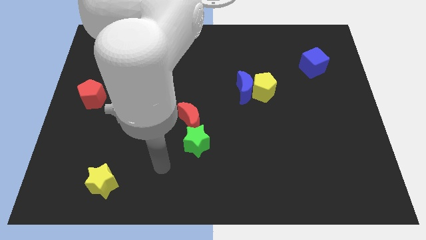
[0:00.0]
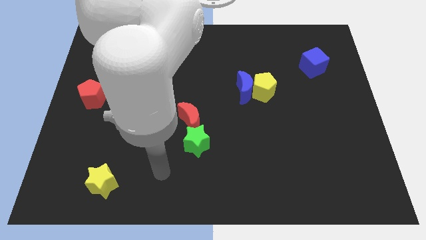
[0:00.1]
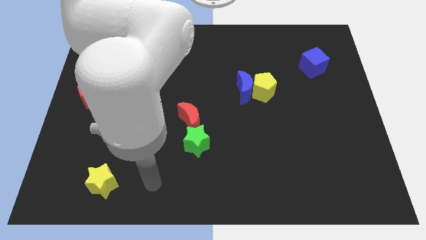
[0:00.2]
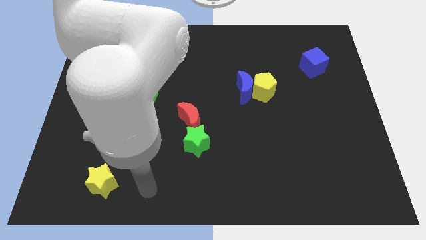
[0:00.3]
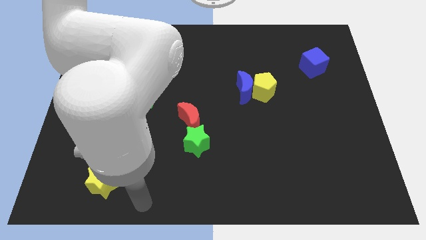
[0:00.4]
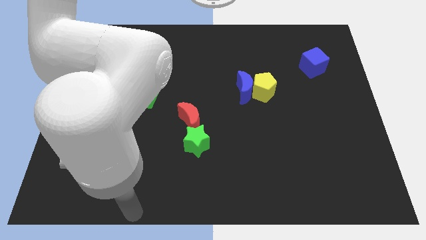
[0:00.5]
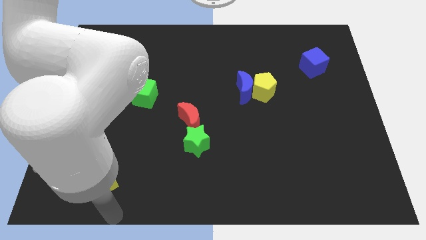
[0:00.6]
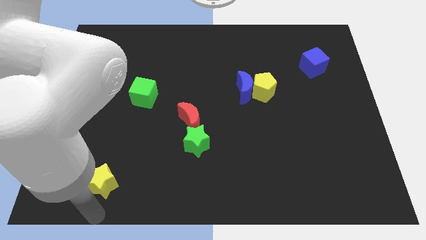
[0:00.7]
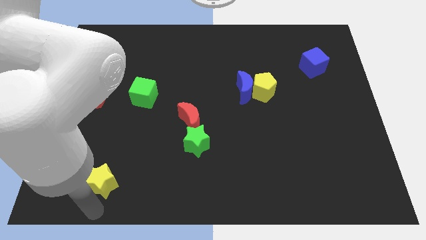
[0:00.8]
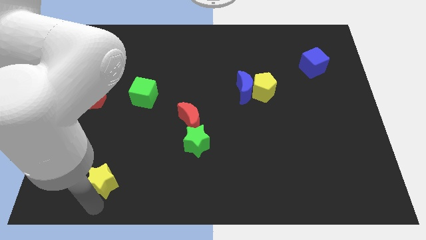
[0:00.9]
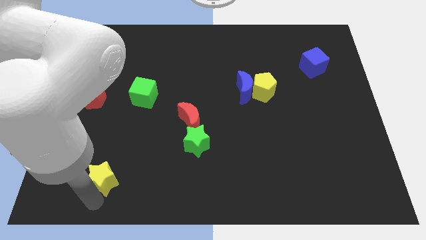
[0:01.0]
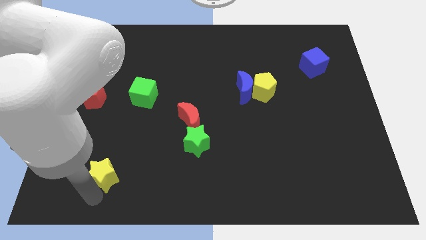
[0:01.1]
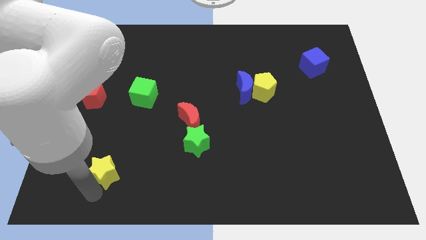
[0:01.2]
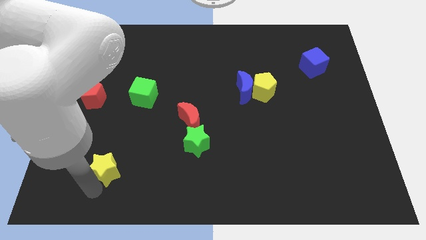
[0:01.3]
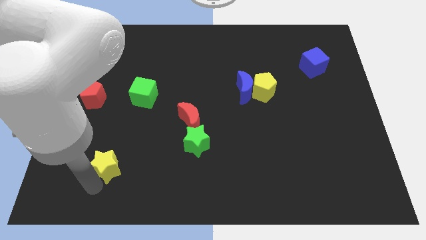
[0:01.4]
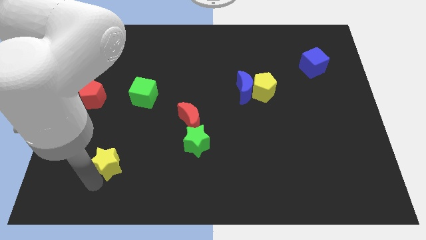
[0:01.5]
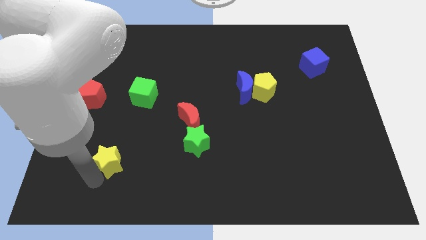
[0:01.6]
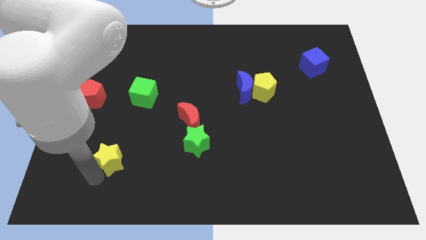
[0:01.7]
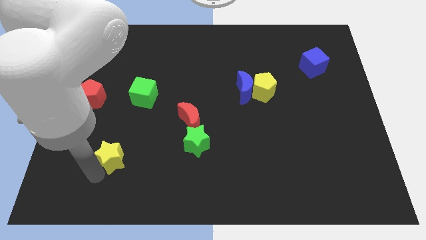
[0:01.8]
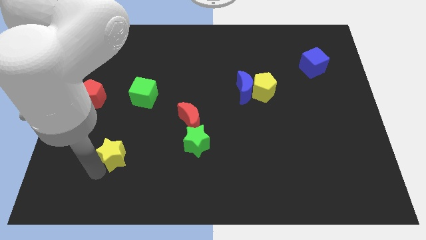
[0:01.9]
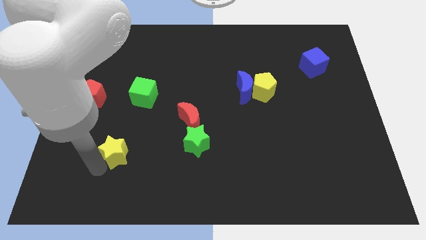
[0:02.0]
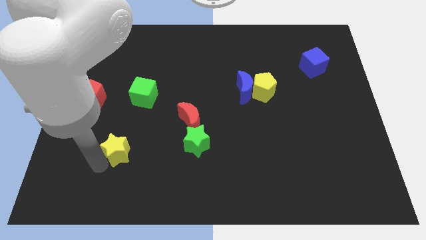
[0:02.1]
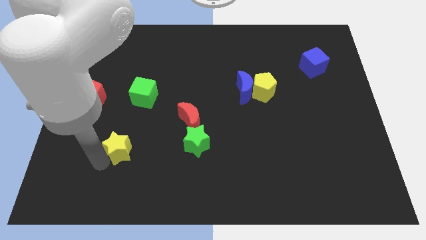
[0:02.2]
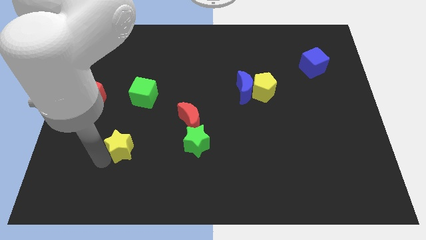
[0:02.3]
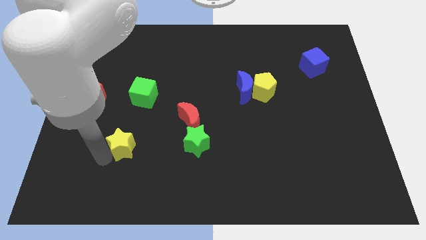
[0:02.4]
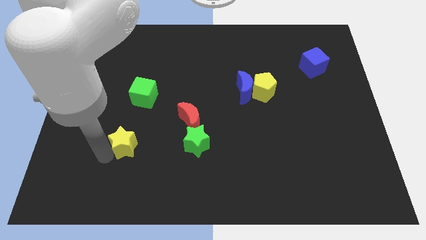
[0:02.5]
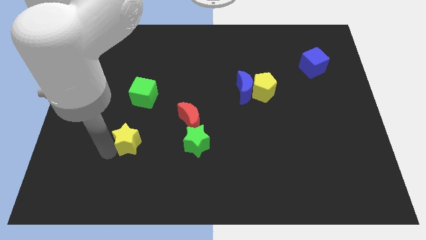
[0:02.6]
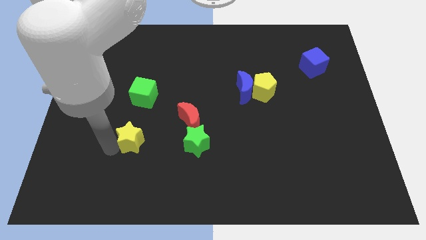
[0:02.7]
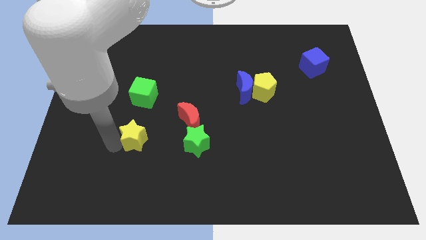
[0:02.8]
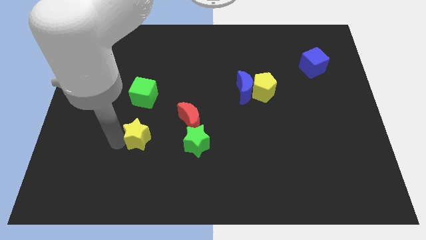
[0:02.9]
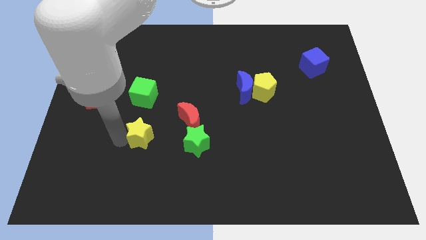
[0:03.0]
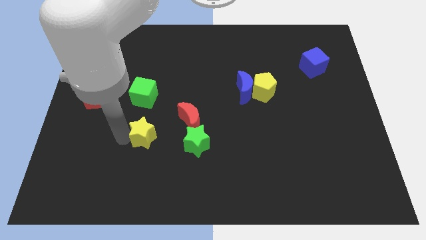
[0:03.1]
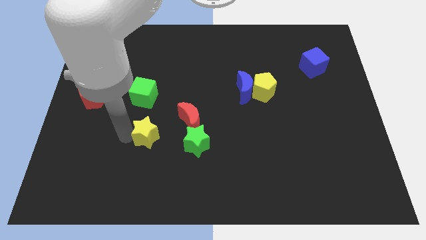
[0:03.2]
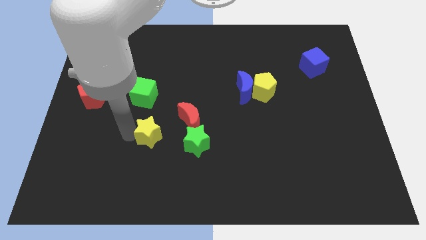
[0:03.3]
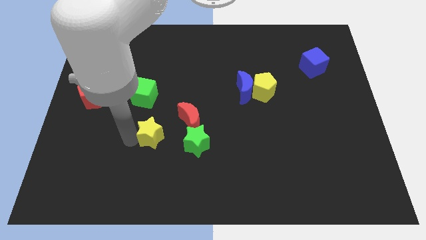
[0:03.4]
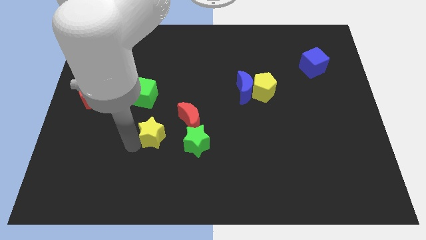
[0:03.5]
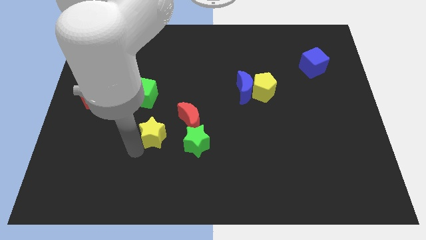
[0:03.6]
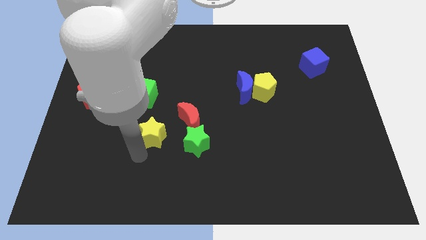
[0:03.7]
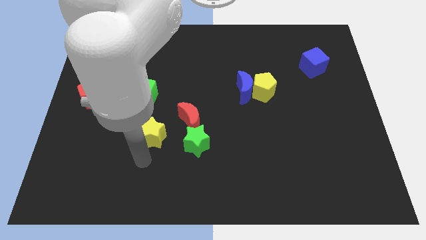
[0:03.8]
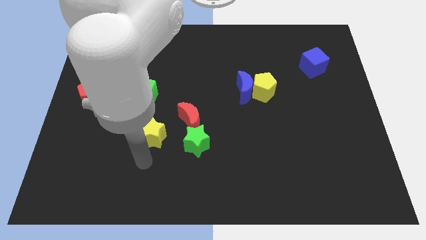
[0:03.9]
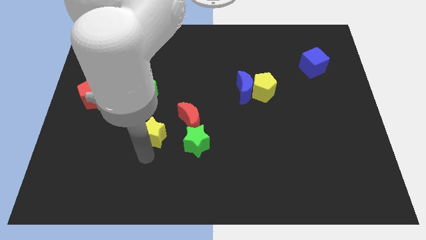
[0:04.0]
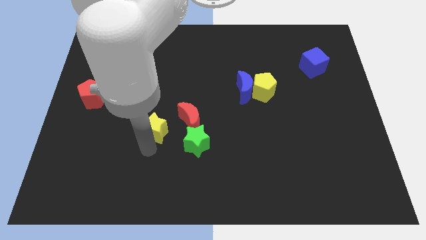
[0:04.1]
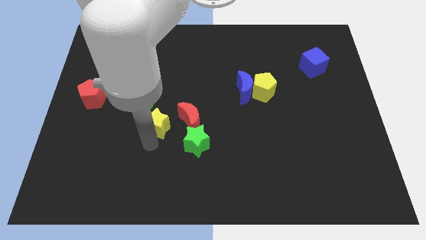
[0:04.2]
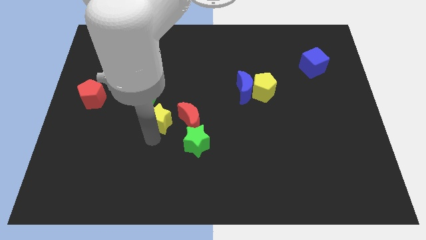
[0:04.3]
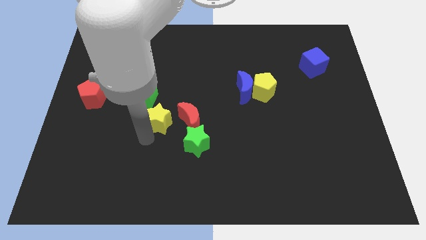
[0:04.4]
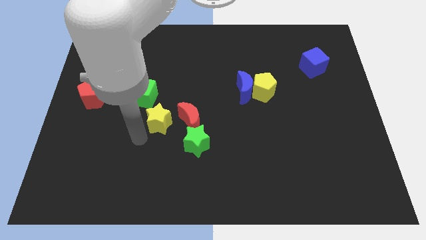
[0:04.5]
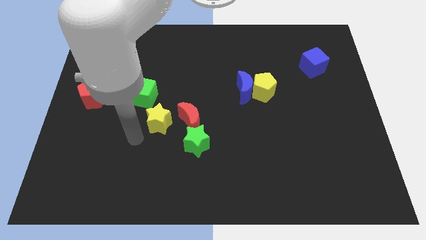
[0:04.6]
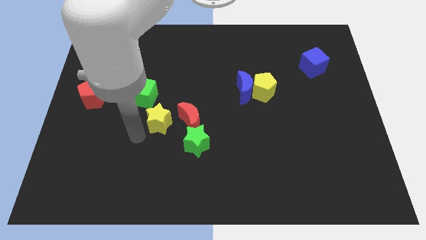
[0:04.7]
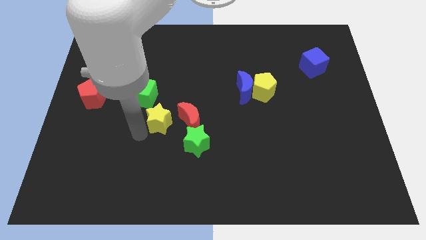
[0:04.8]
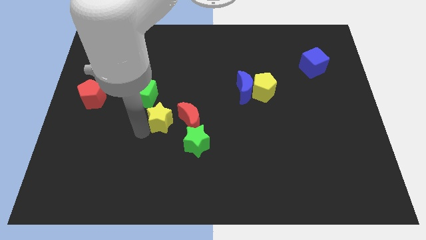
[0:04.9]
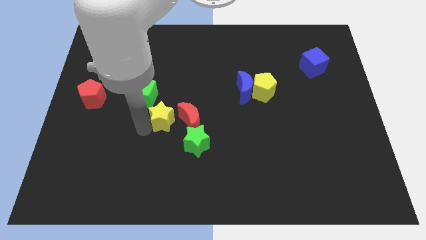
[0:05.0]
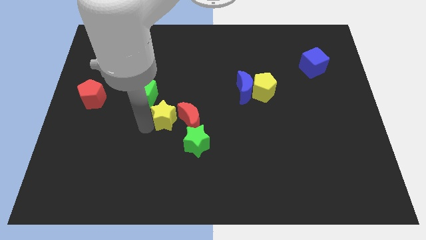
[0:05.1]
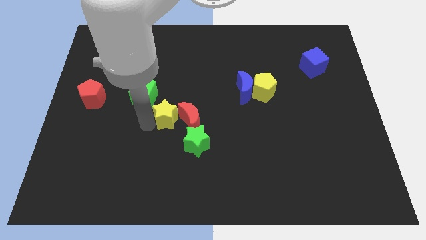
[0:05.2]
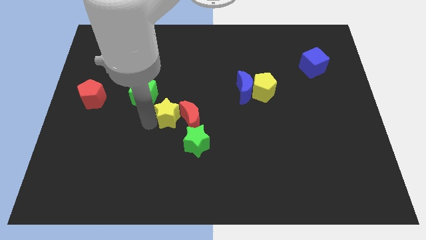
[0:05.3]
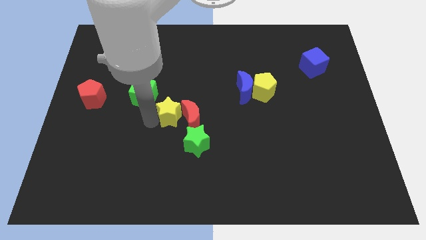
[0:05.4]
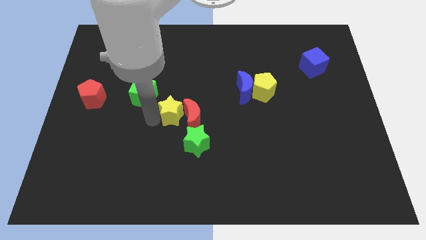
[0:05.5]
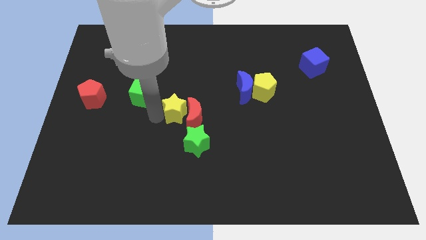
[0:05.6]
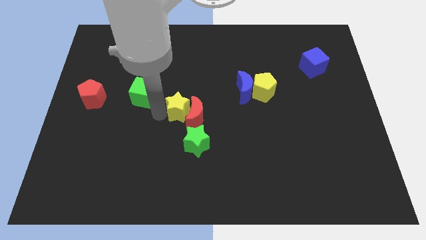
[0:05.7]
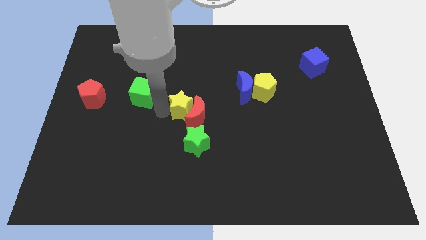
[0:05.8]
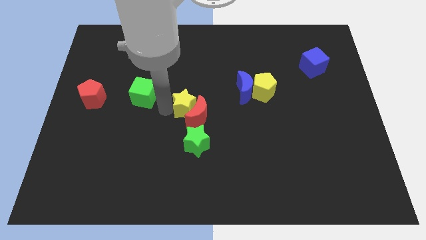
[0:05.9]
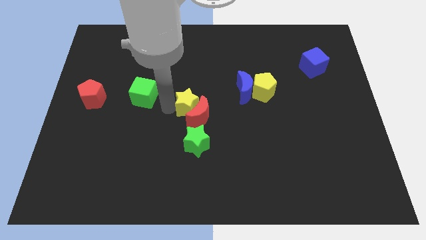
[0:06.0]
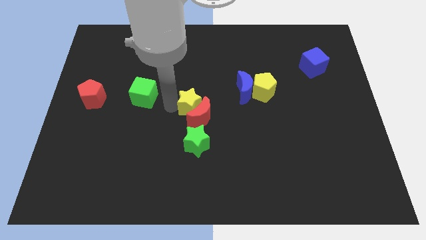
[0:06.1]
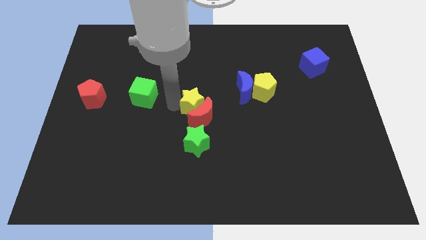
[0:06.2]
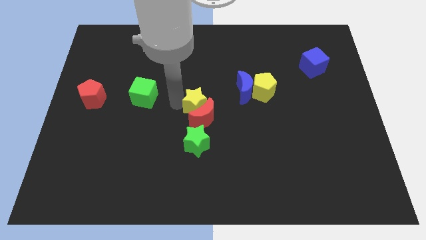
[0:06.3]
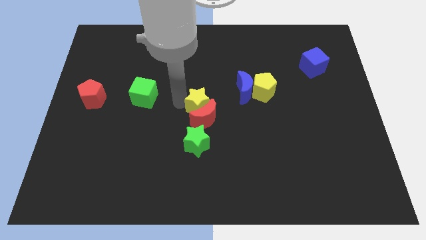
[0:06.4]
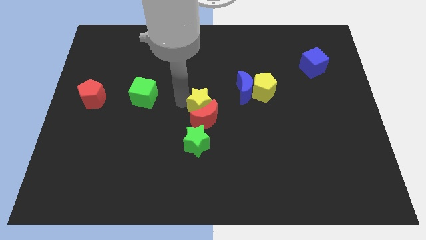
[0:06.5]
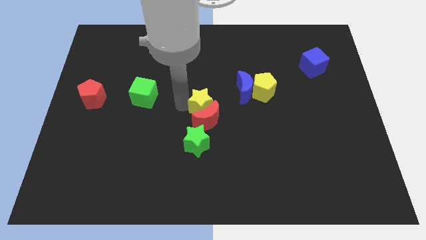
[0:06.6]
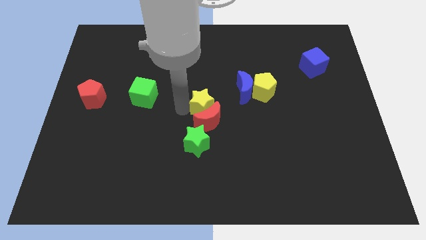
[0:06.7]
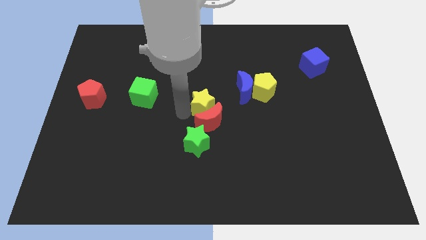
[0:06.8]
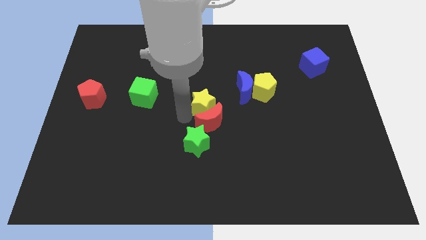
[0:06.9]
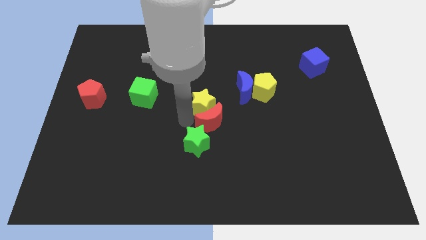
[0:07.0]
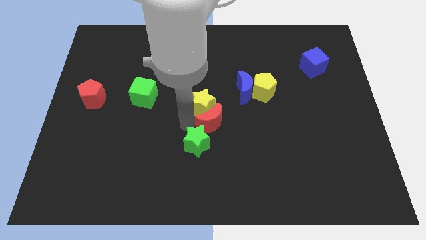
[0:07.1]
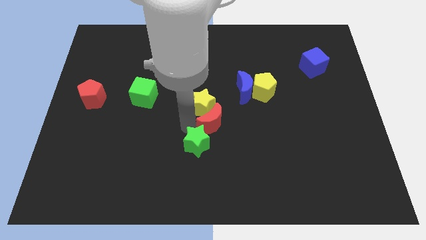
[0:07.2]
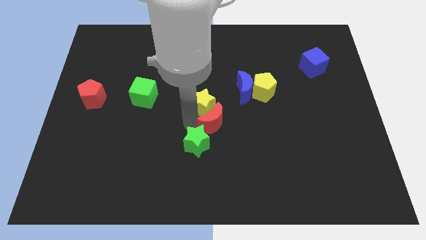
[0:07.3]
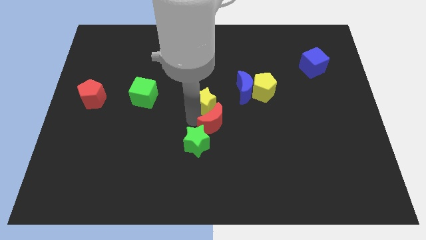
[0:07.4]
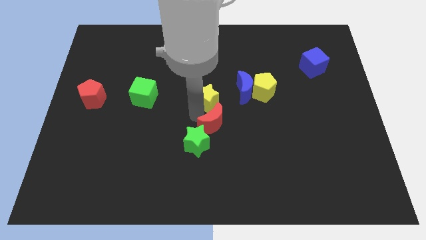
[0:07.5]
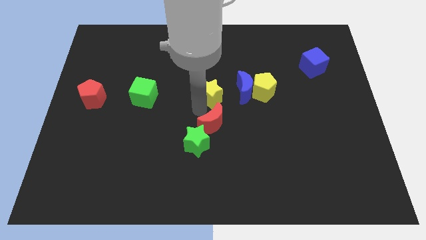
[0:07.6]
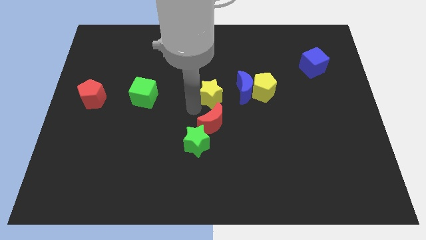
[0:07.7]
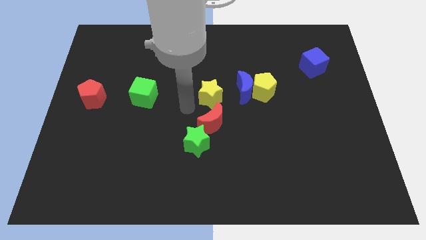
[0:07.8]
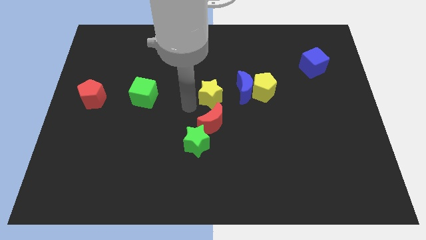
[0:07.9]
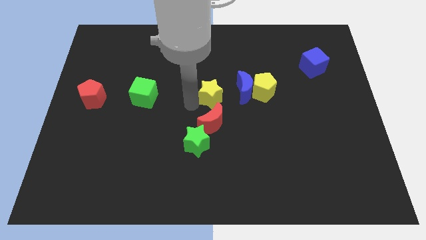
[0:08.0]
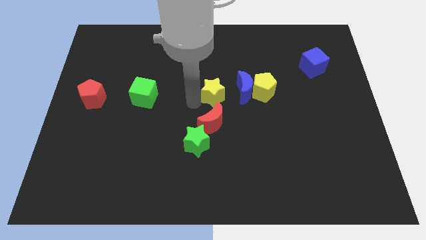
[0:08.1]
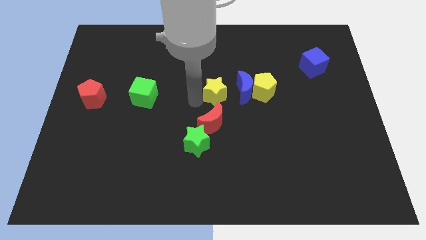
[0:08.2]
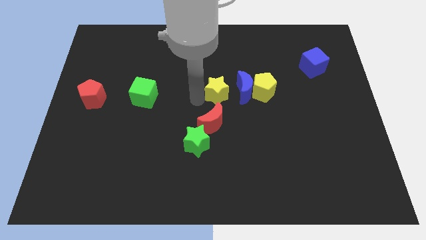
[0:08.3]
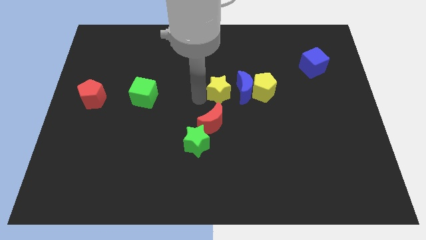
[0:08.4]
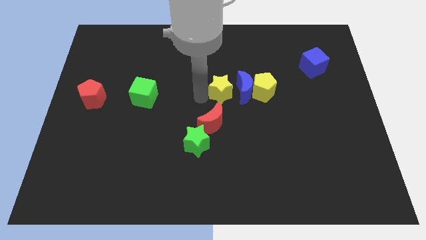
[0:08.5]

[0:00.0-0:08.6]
move the yellow star next to the blue moon
